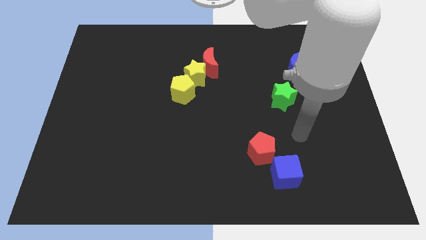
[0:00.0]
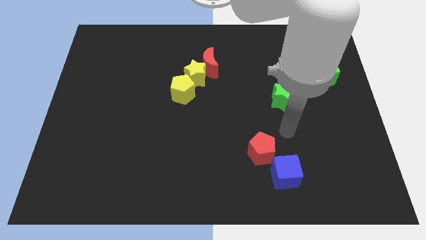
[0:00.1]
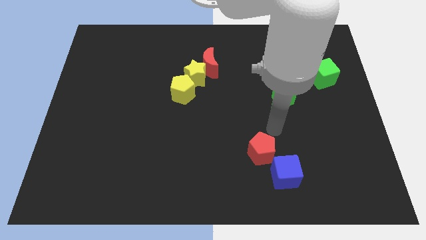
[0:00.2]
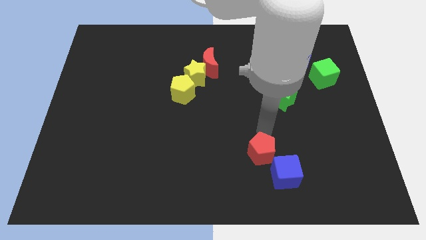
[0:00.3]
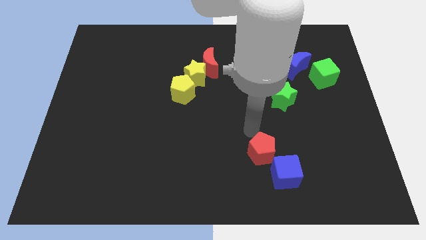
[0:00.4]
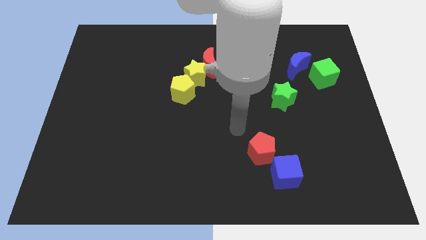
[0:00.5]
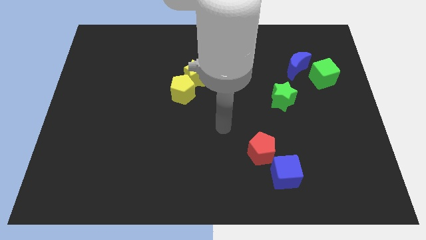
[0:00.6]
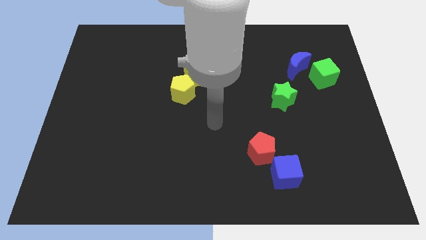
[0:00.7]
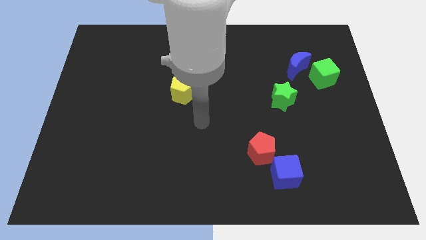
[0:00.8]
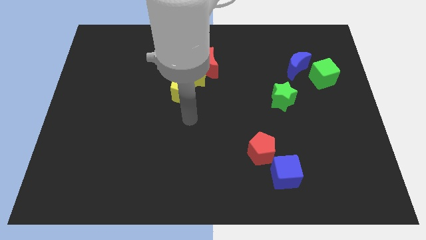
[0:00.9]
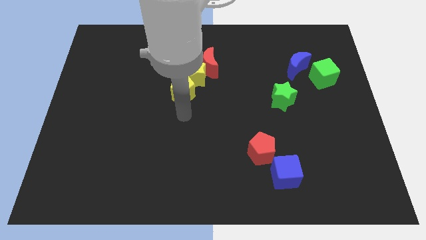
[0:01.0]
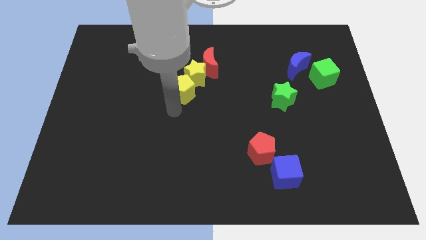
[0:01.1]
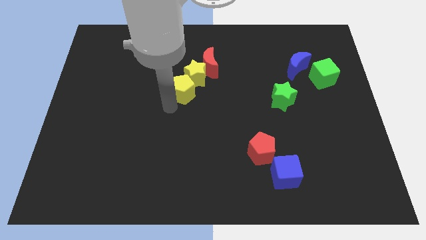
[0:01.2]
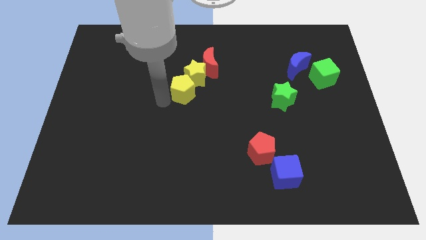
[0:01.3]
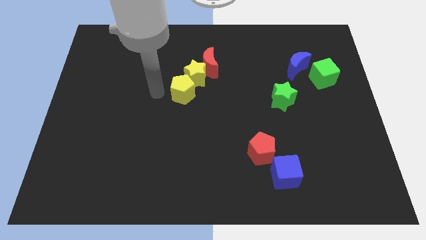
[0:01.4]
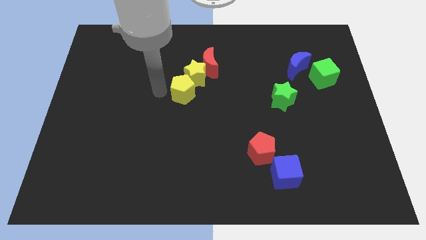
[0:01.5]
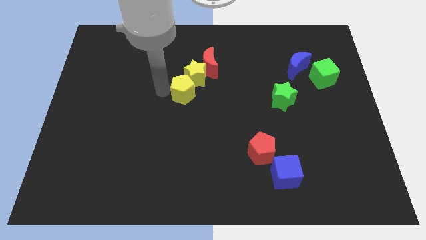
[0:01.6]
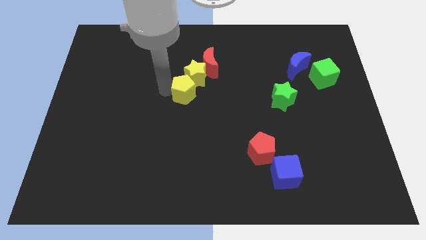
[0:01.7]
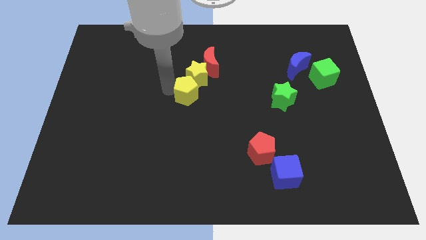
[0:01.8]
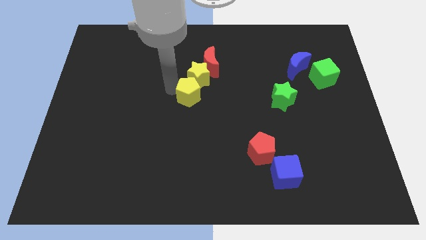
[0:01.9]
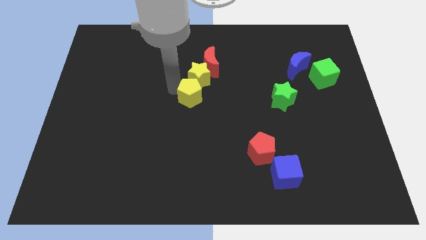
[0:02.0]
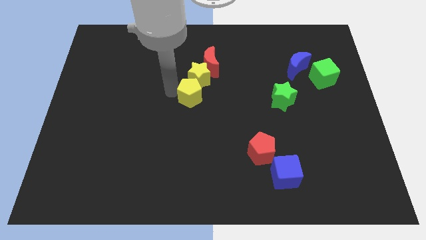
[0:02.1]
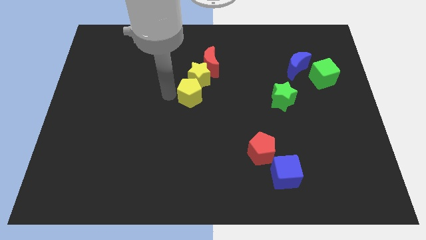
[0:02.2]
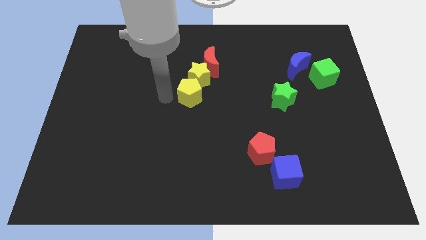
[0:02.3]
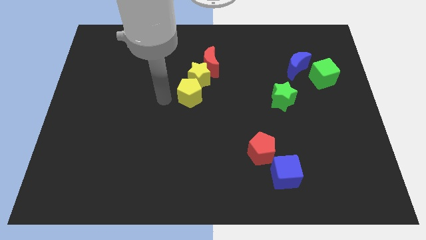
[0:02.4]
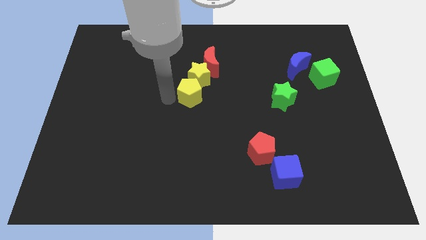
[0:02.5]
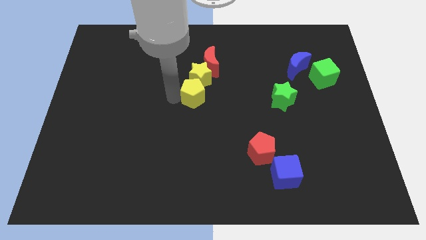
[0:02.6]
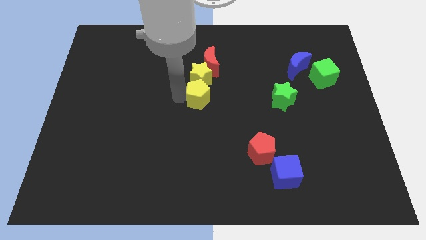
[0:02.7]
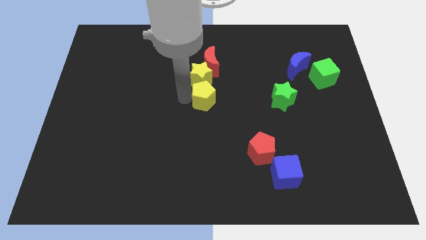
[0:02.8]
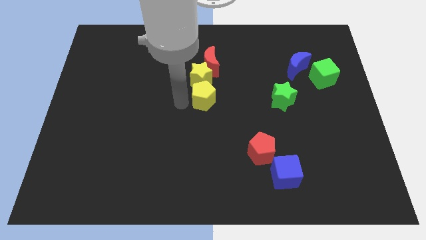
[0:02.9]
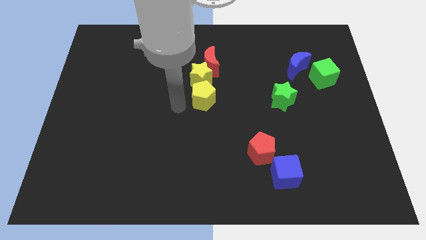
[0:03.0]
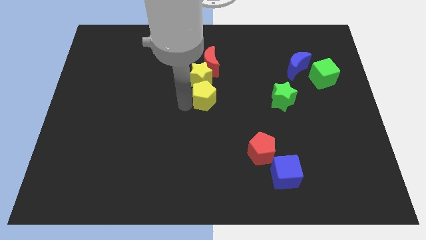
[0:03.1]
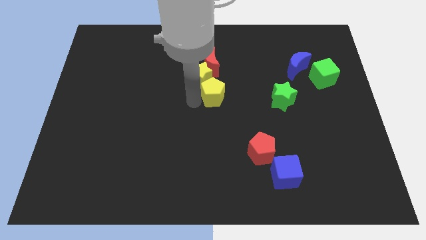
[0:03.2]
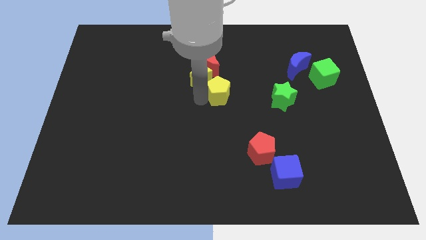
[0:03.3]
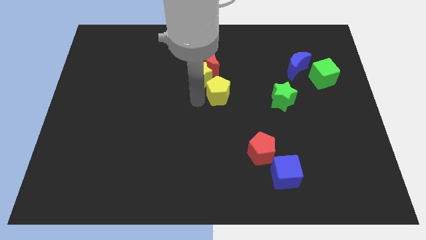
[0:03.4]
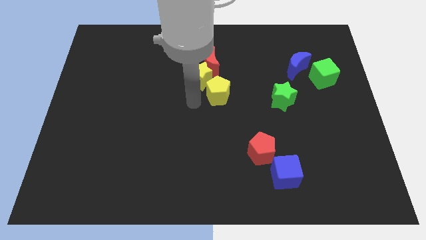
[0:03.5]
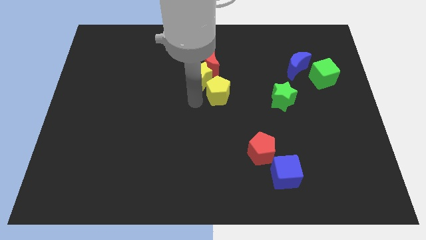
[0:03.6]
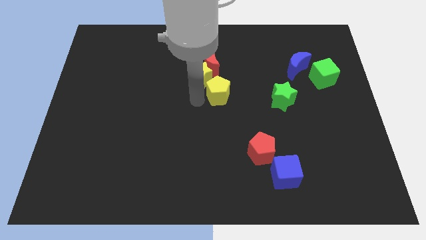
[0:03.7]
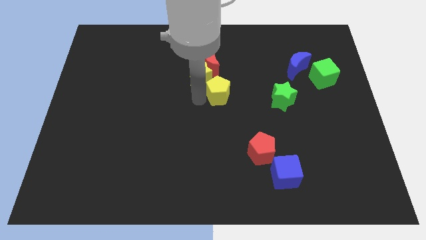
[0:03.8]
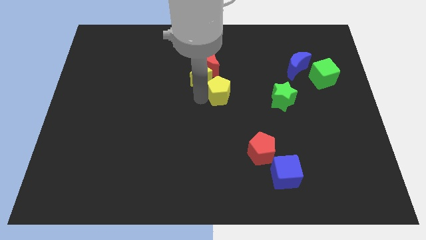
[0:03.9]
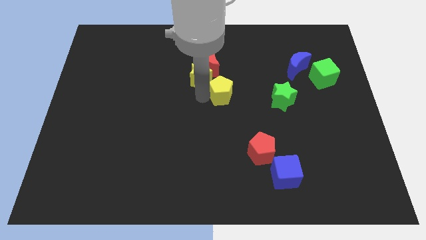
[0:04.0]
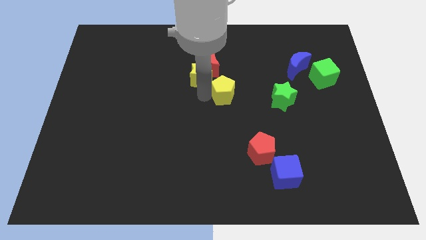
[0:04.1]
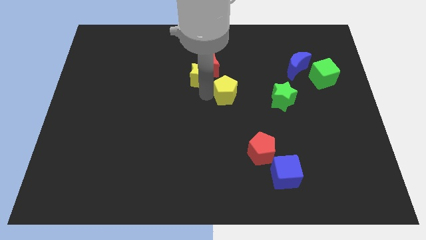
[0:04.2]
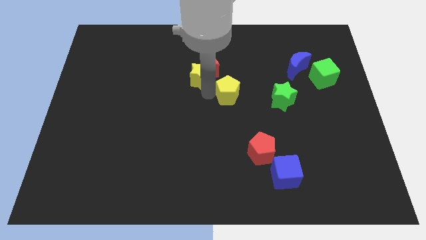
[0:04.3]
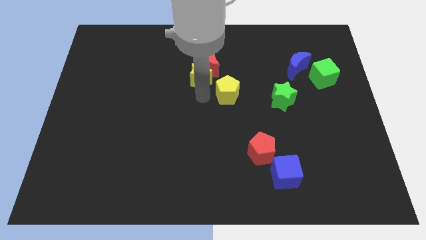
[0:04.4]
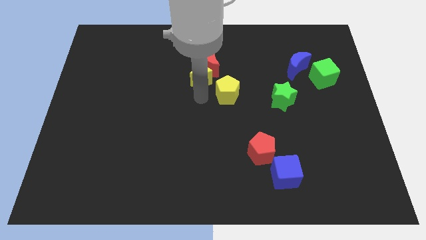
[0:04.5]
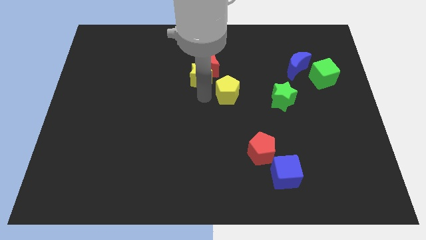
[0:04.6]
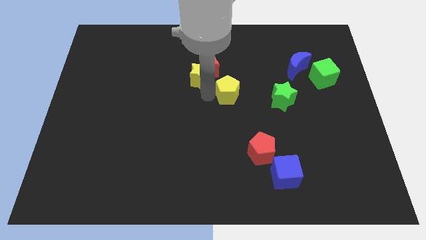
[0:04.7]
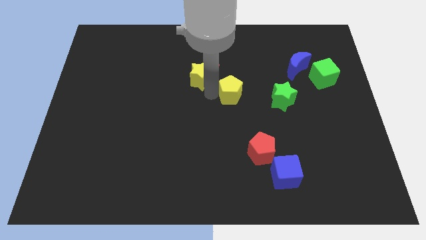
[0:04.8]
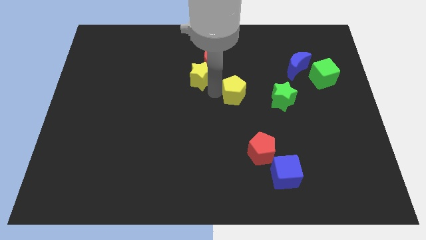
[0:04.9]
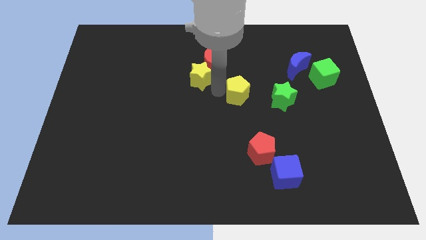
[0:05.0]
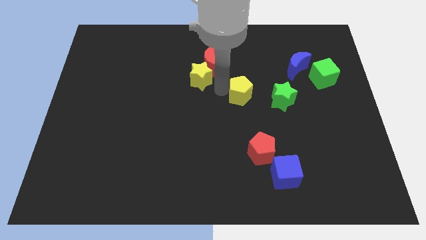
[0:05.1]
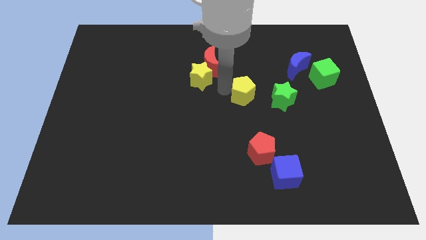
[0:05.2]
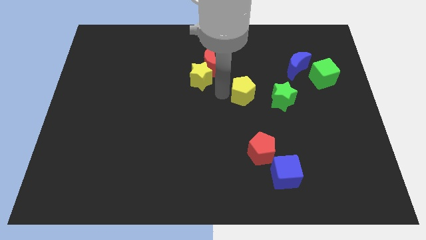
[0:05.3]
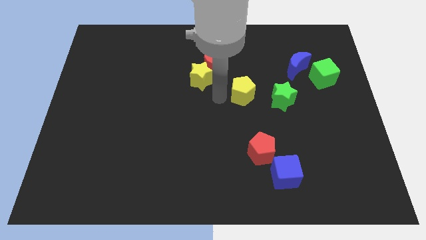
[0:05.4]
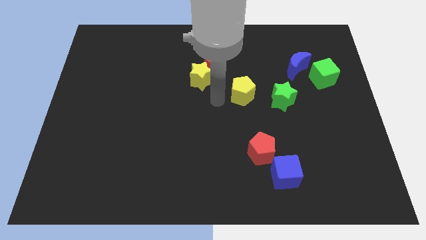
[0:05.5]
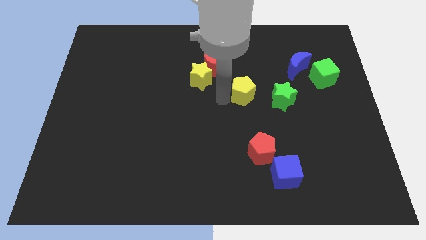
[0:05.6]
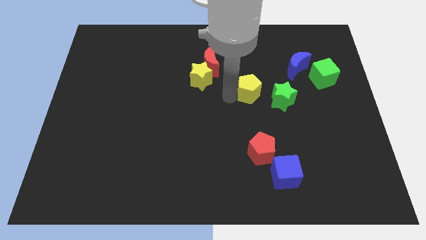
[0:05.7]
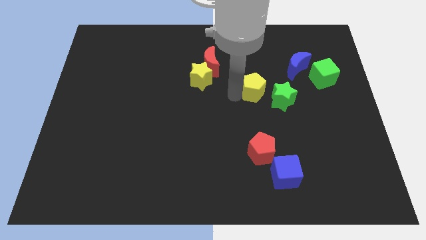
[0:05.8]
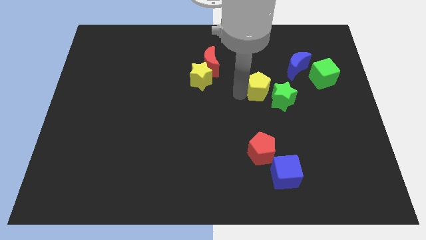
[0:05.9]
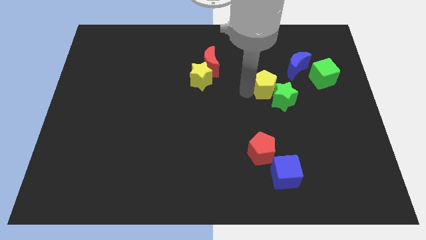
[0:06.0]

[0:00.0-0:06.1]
slide the yellow pentagon right

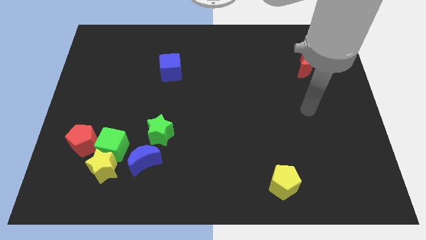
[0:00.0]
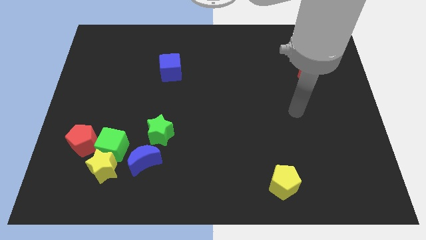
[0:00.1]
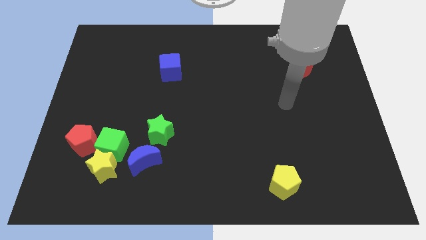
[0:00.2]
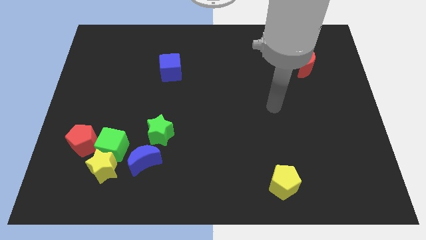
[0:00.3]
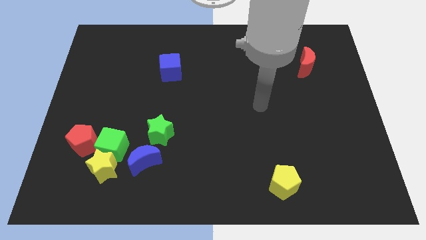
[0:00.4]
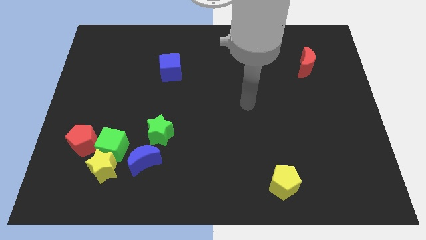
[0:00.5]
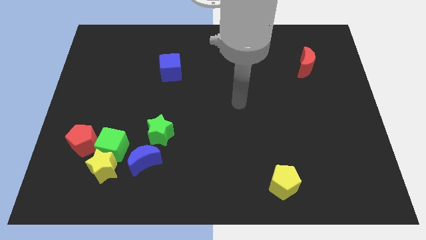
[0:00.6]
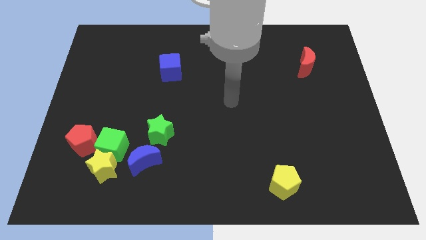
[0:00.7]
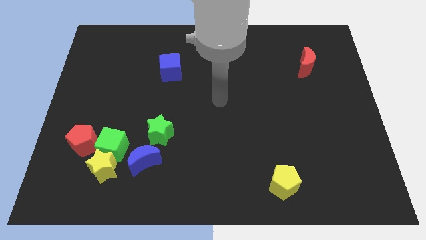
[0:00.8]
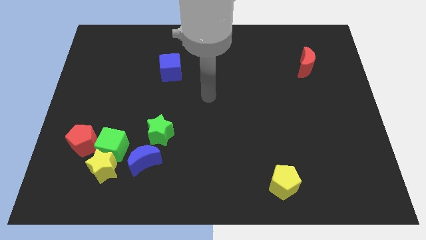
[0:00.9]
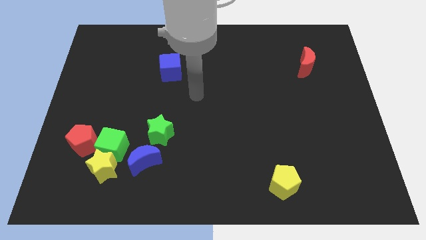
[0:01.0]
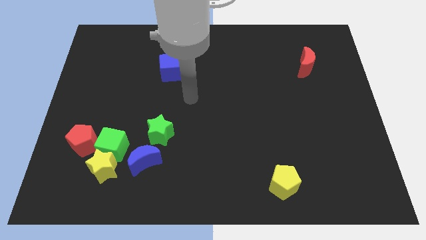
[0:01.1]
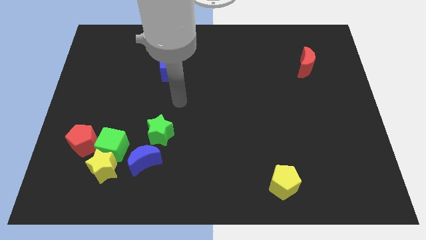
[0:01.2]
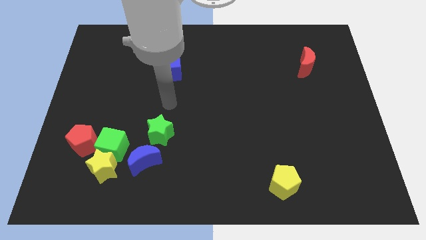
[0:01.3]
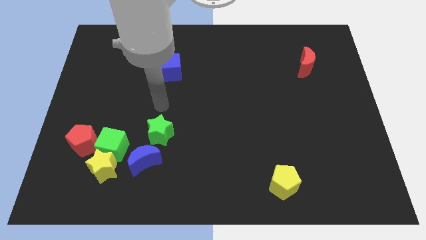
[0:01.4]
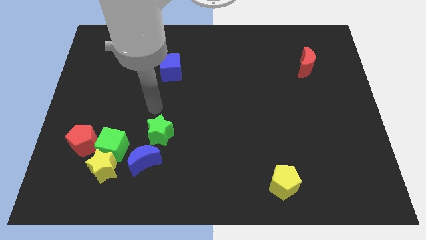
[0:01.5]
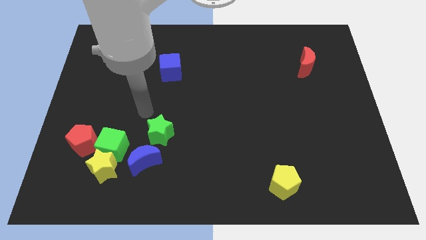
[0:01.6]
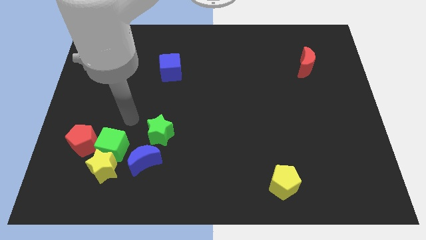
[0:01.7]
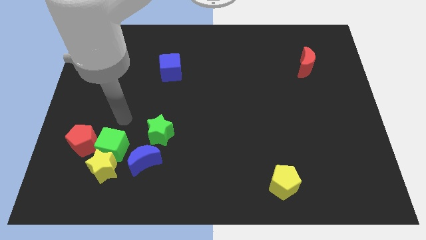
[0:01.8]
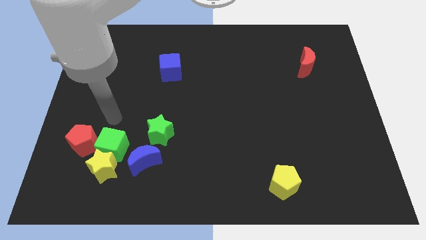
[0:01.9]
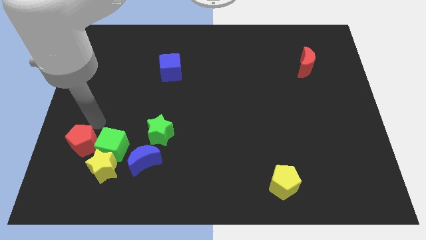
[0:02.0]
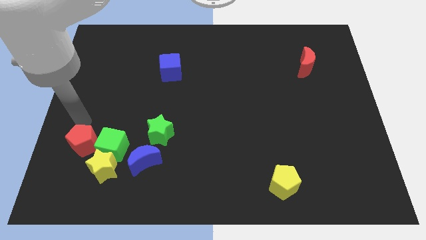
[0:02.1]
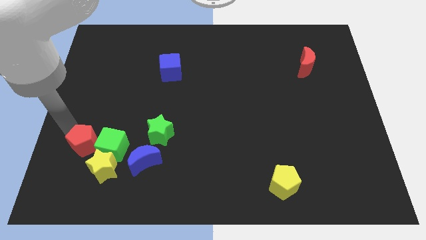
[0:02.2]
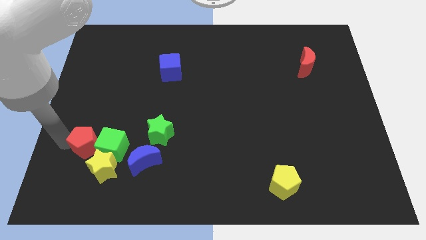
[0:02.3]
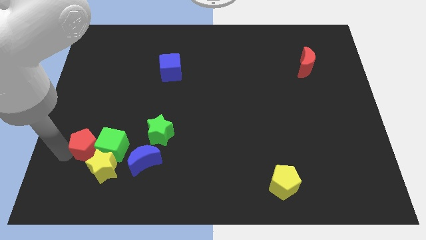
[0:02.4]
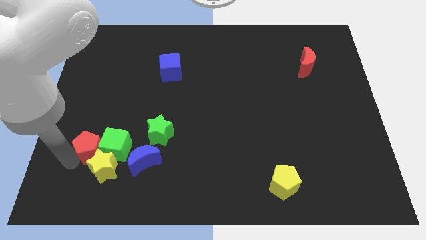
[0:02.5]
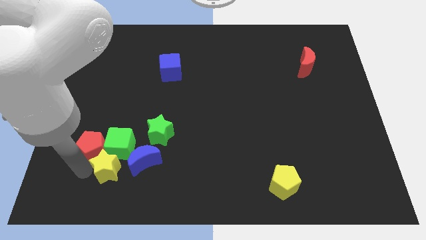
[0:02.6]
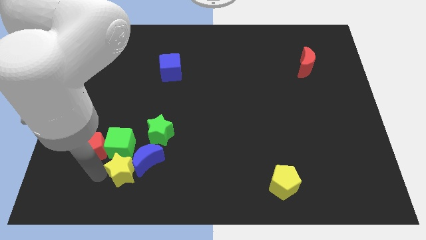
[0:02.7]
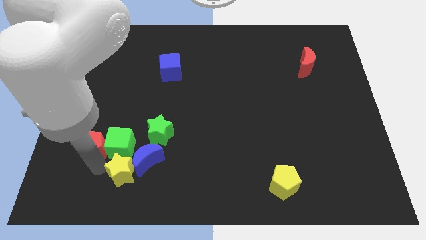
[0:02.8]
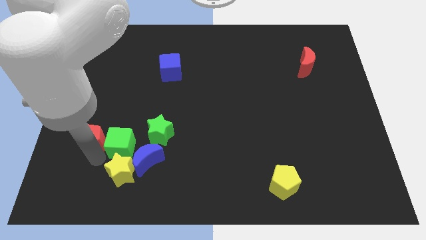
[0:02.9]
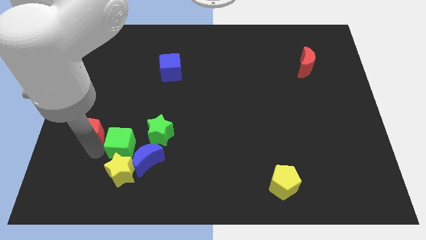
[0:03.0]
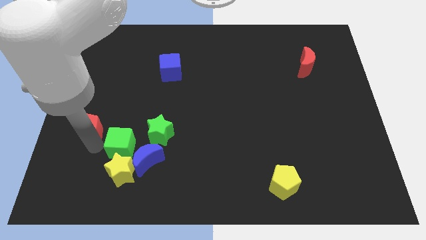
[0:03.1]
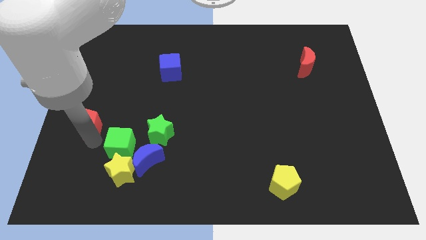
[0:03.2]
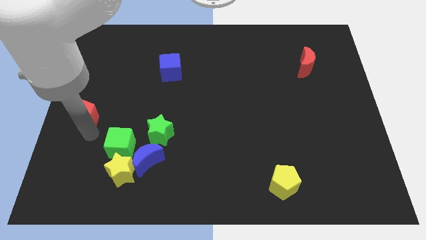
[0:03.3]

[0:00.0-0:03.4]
slightly move the red pentagon upwards
